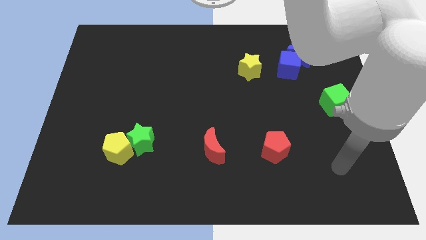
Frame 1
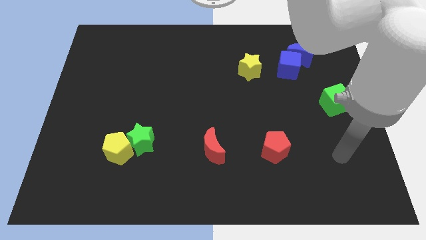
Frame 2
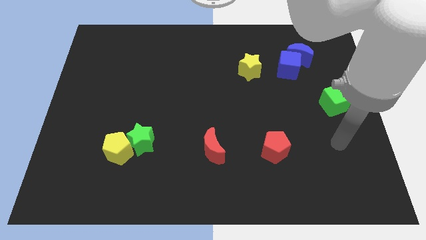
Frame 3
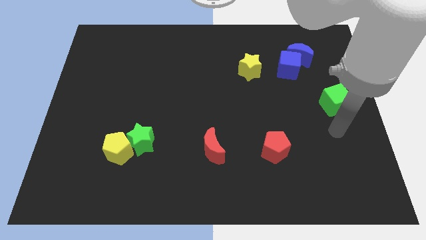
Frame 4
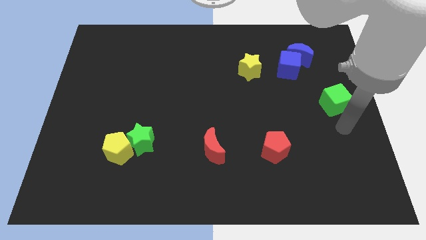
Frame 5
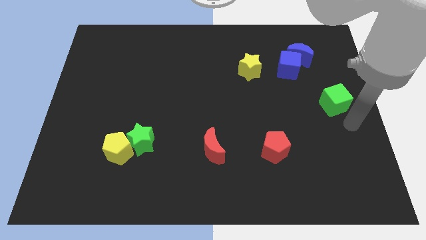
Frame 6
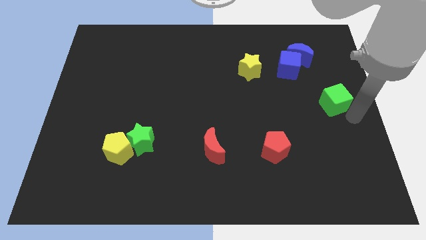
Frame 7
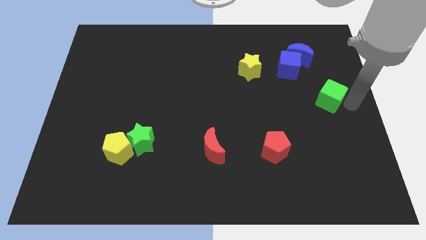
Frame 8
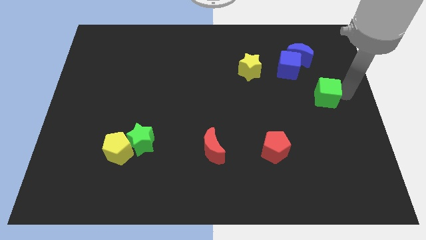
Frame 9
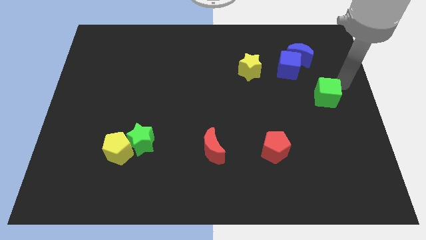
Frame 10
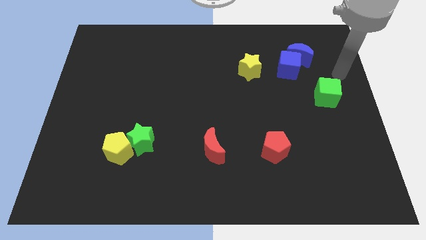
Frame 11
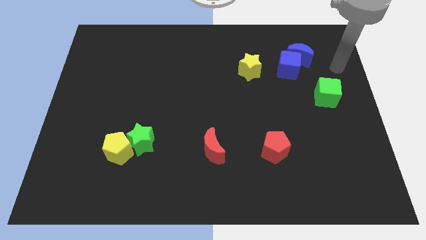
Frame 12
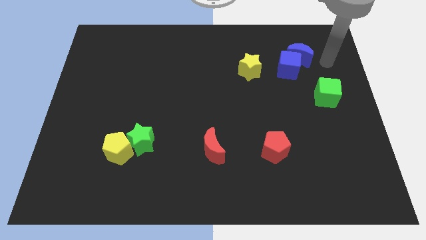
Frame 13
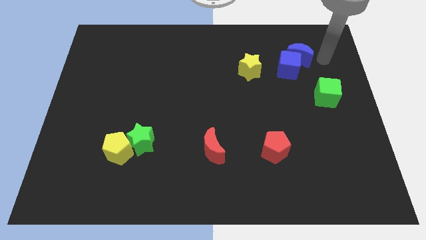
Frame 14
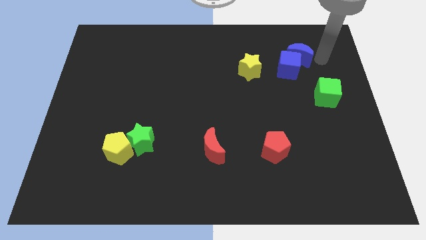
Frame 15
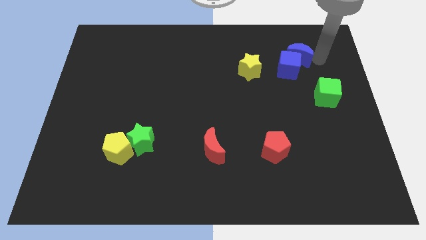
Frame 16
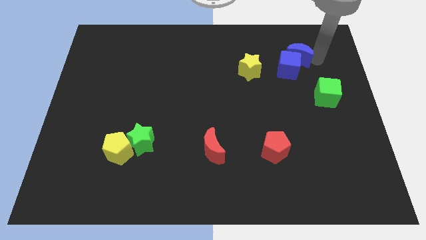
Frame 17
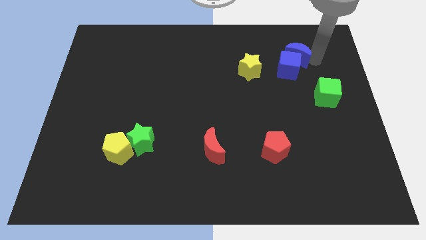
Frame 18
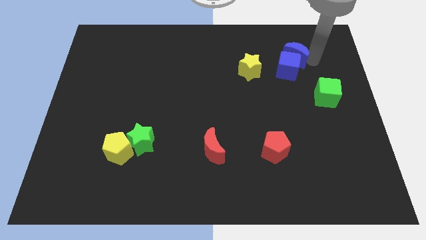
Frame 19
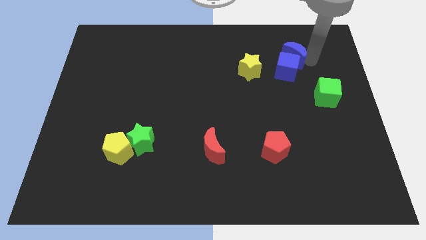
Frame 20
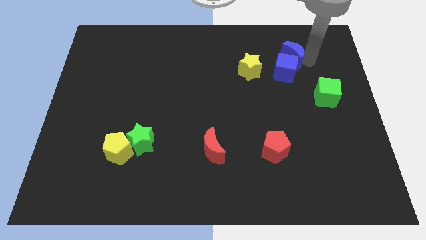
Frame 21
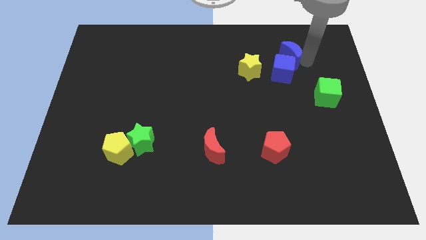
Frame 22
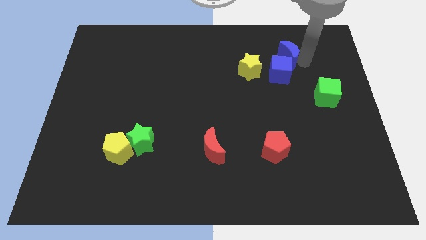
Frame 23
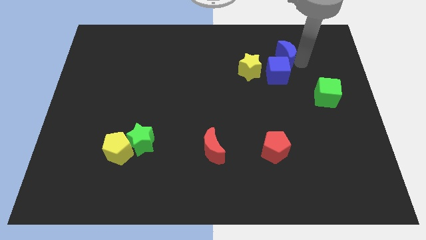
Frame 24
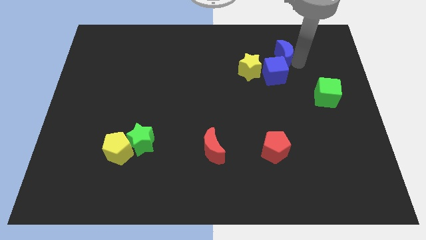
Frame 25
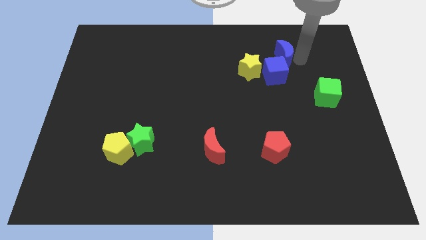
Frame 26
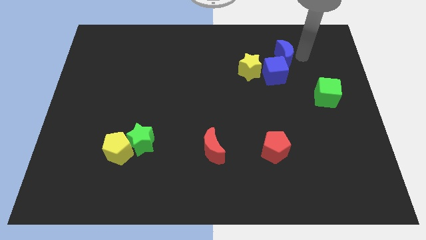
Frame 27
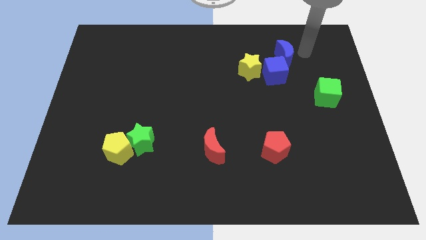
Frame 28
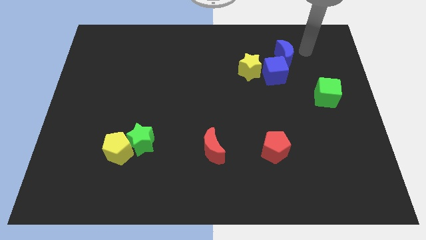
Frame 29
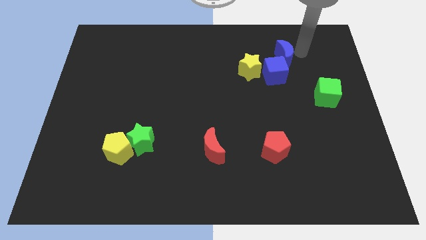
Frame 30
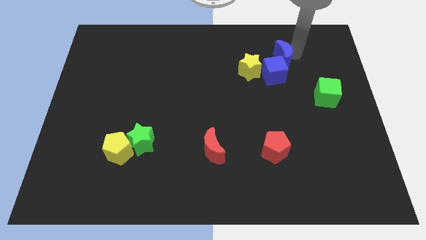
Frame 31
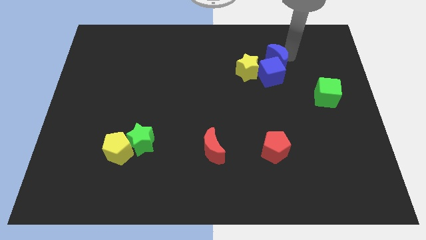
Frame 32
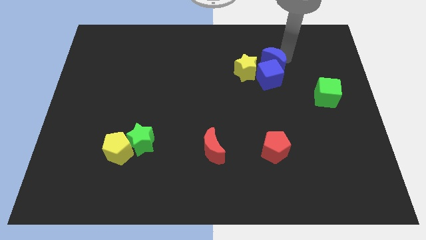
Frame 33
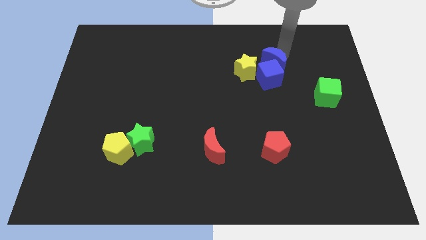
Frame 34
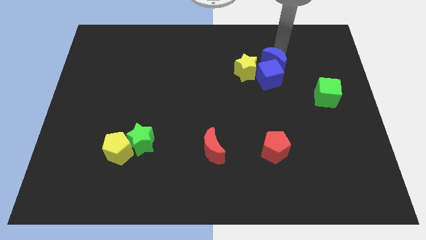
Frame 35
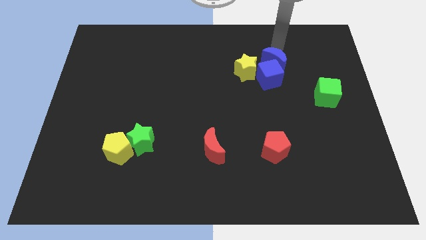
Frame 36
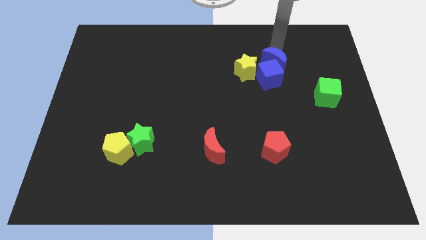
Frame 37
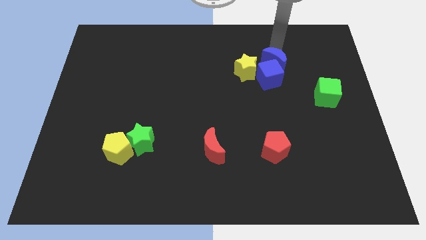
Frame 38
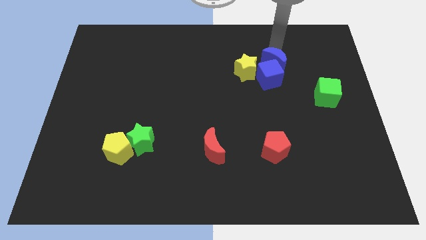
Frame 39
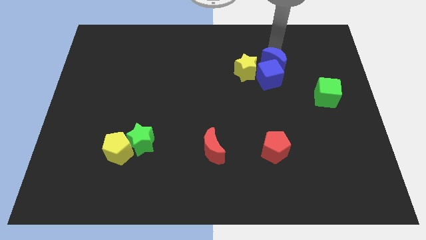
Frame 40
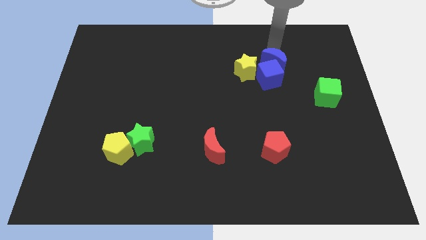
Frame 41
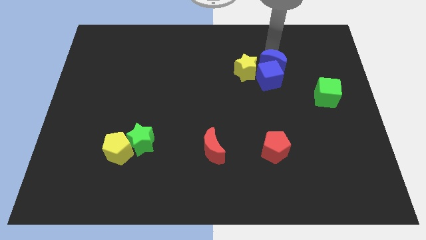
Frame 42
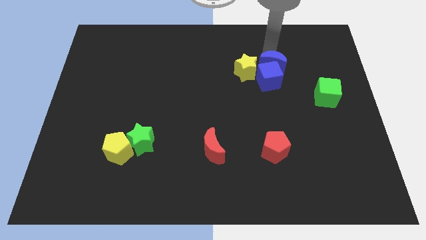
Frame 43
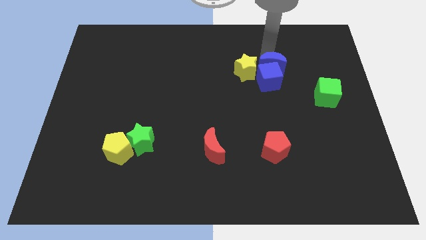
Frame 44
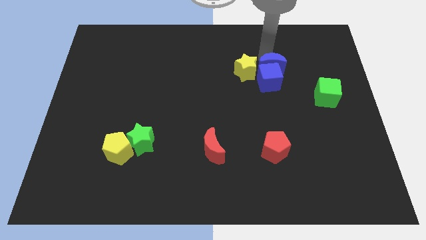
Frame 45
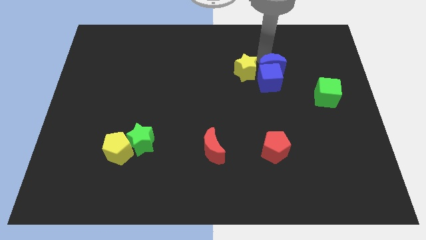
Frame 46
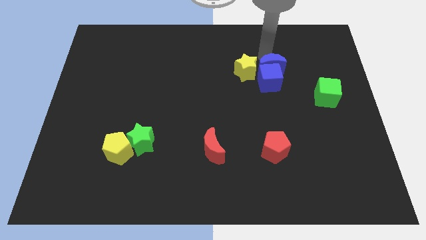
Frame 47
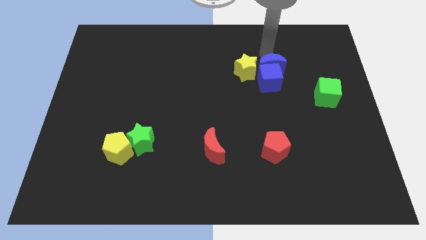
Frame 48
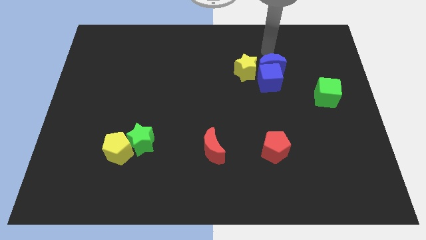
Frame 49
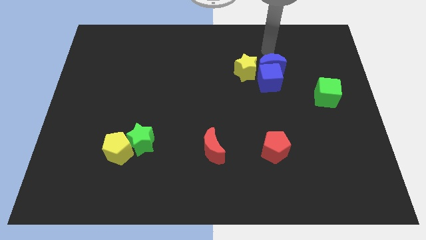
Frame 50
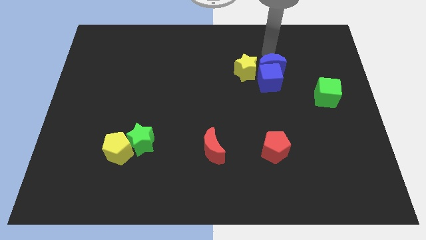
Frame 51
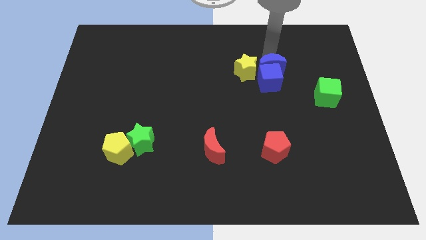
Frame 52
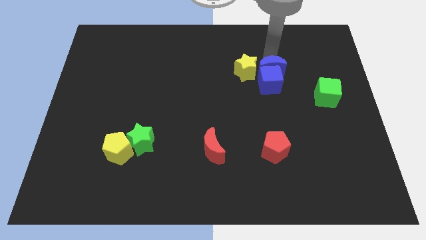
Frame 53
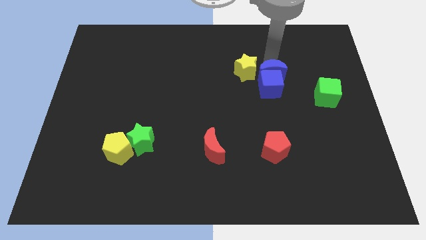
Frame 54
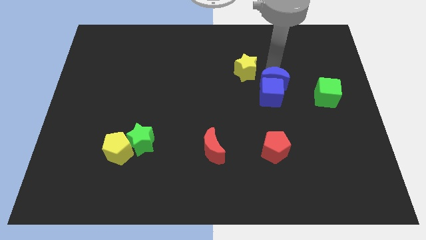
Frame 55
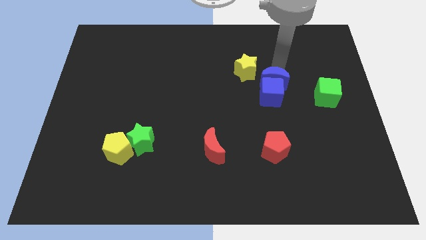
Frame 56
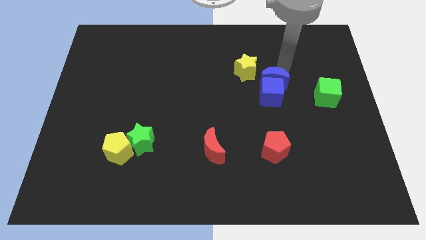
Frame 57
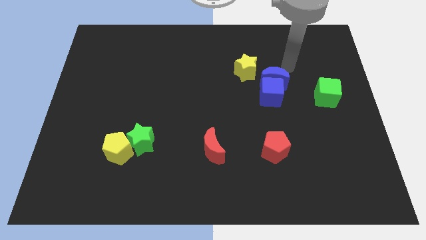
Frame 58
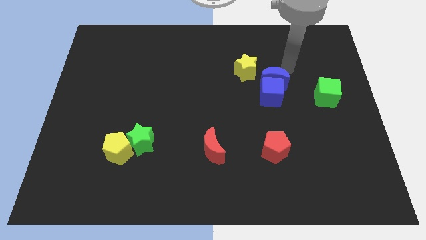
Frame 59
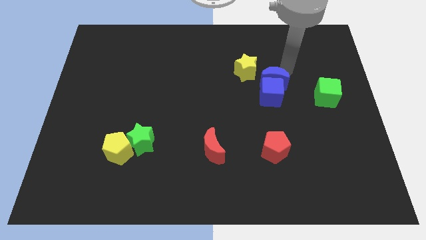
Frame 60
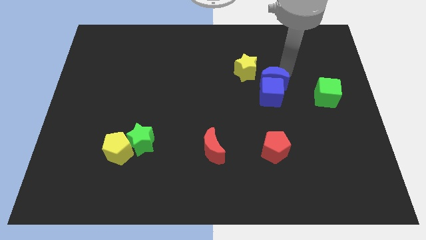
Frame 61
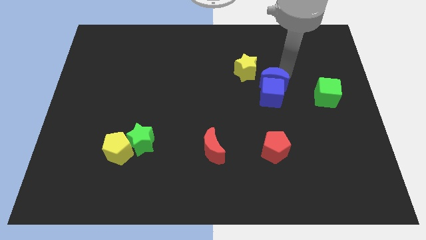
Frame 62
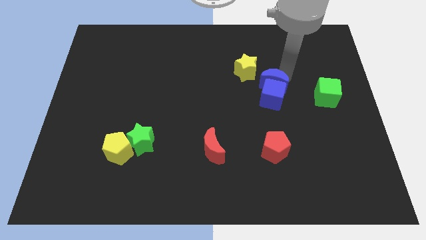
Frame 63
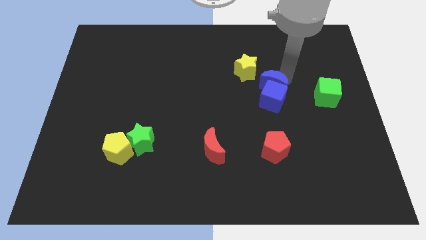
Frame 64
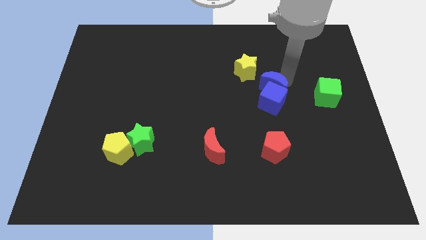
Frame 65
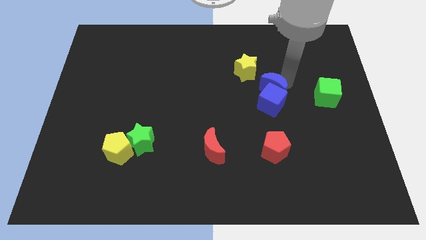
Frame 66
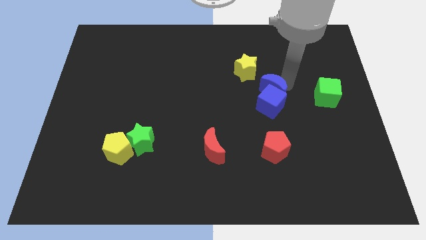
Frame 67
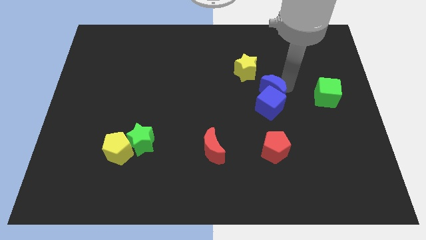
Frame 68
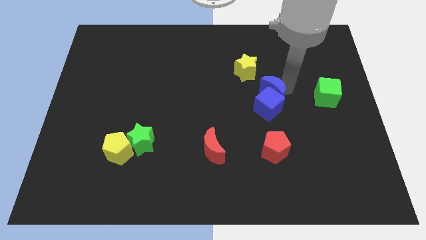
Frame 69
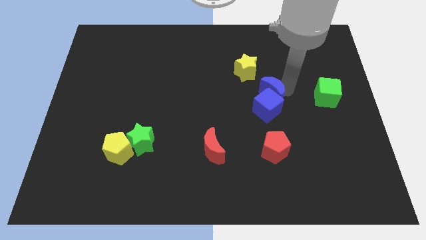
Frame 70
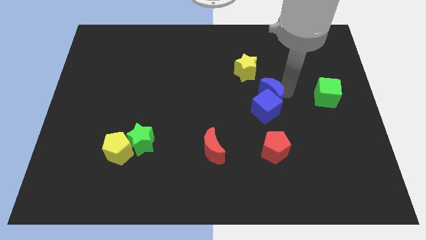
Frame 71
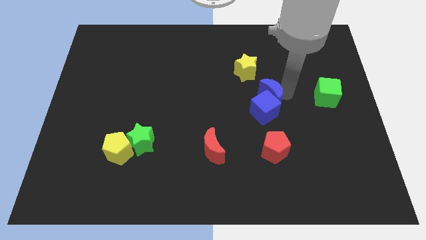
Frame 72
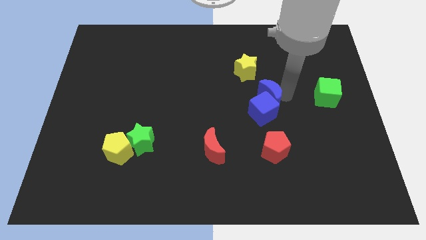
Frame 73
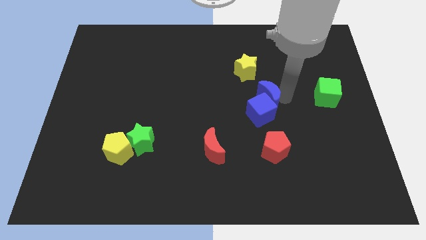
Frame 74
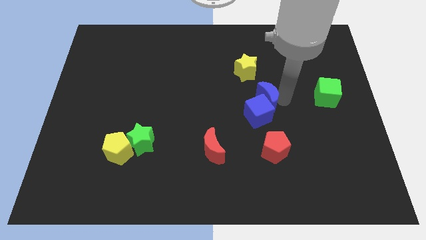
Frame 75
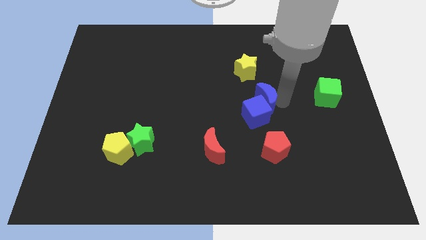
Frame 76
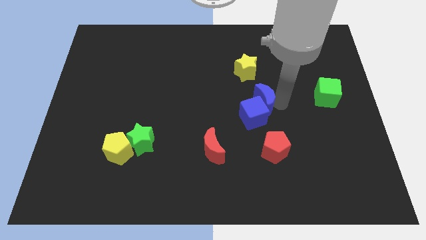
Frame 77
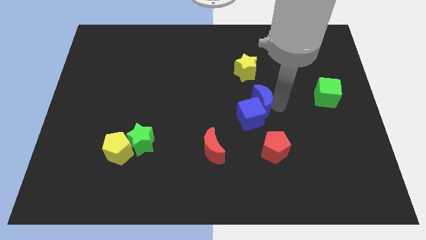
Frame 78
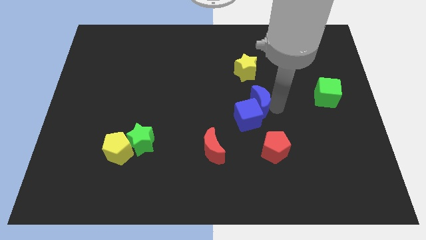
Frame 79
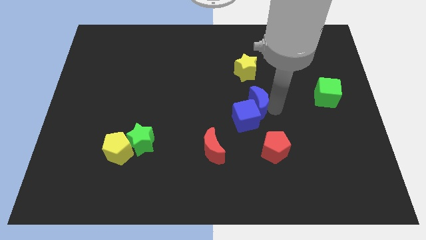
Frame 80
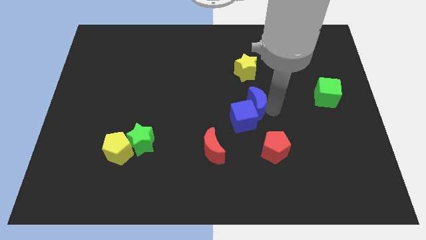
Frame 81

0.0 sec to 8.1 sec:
slide the blue moon downwards and left diagonally

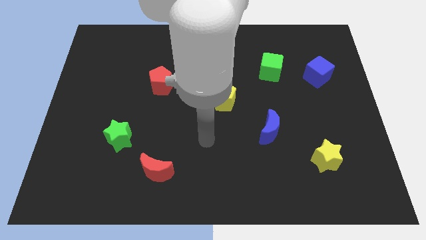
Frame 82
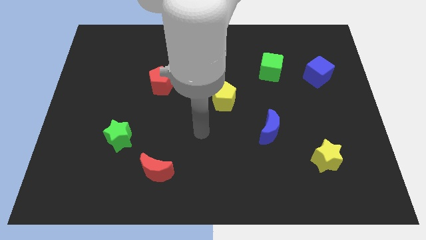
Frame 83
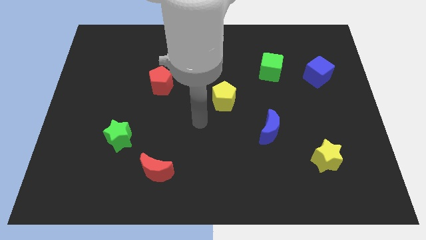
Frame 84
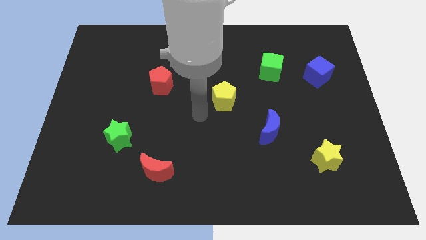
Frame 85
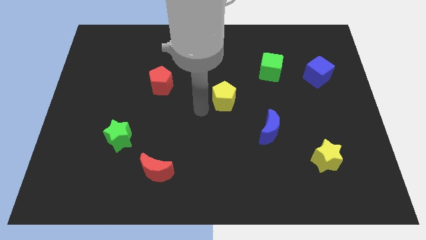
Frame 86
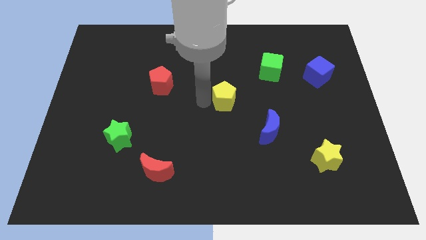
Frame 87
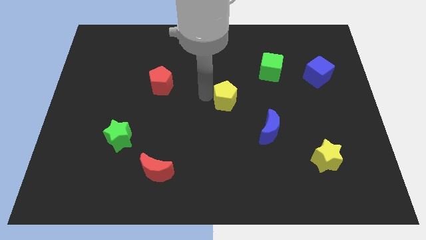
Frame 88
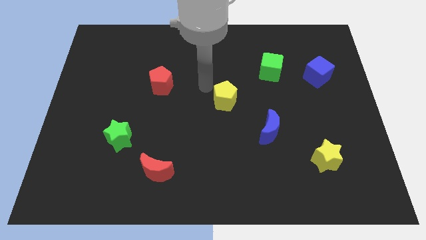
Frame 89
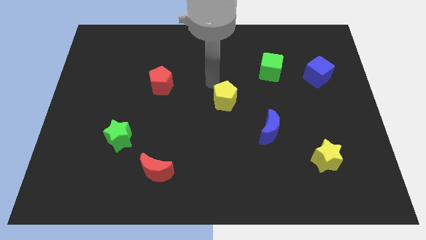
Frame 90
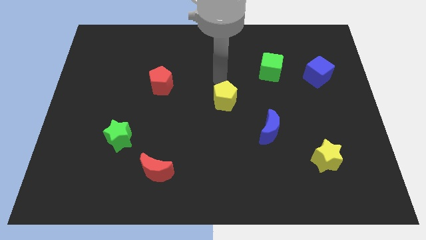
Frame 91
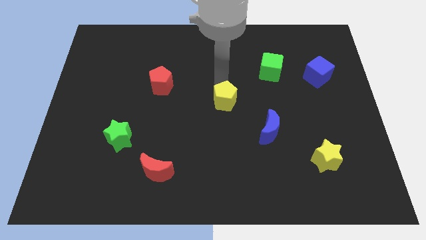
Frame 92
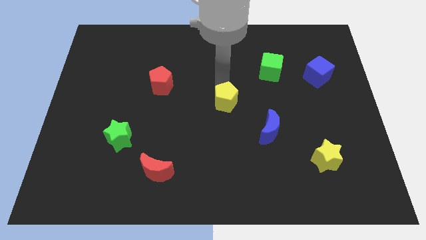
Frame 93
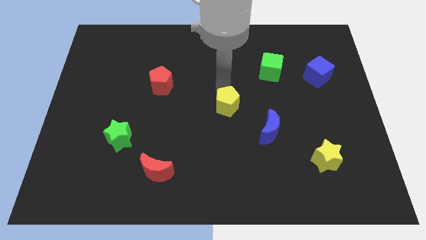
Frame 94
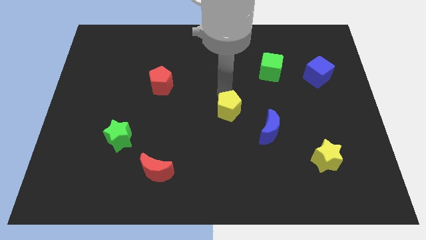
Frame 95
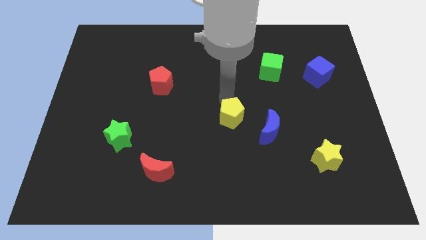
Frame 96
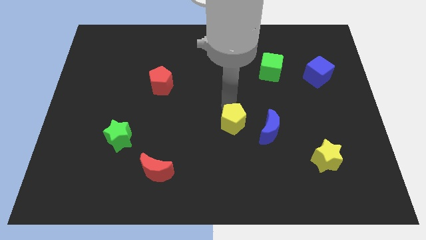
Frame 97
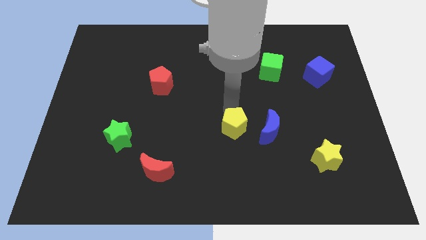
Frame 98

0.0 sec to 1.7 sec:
push the yellow pentagon down somewhat
